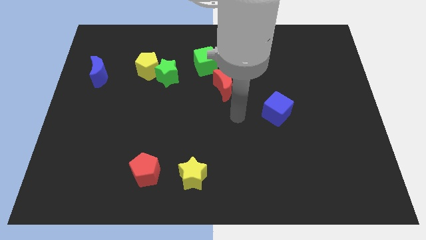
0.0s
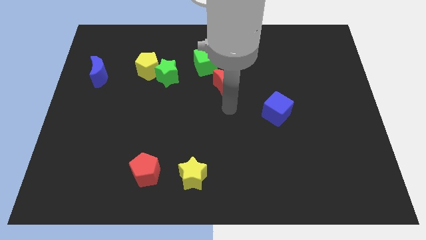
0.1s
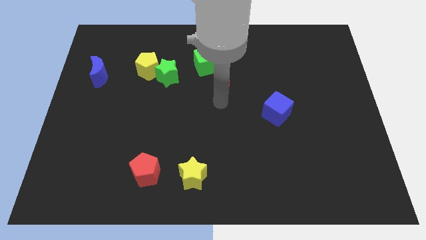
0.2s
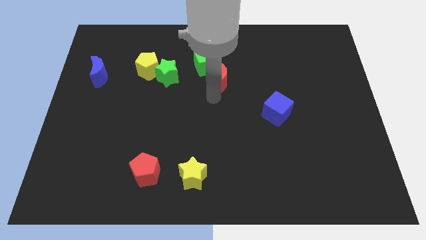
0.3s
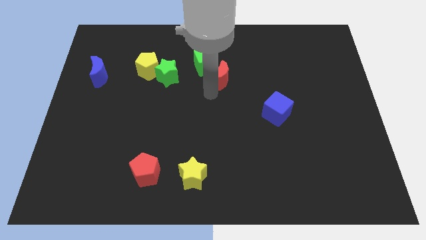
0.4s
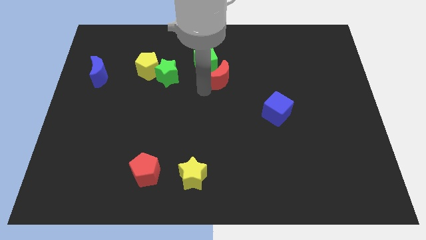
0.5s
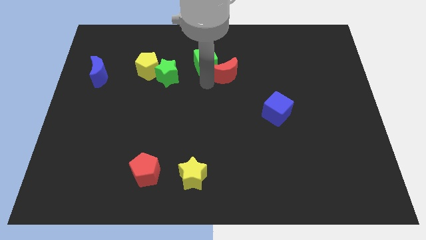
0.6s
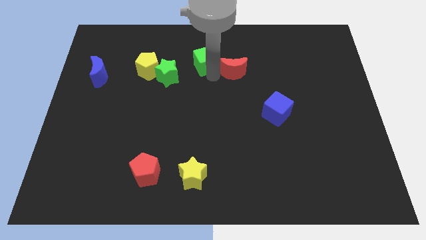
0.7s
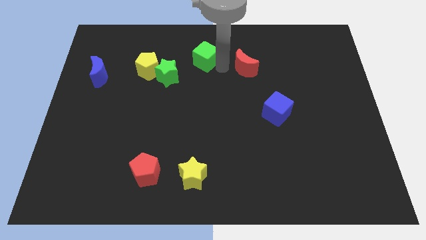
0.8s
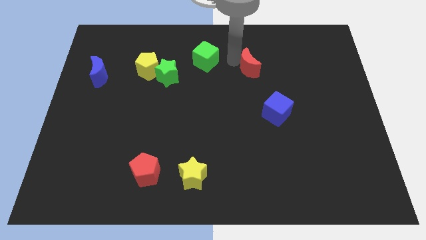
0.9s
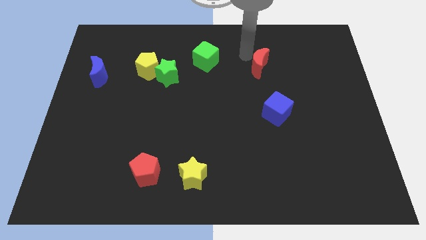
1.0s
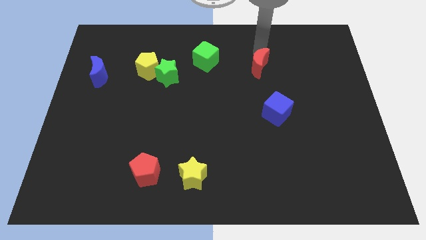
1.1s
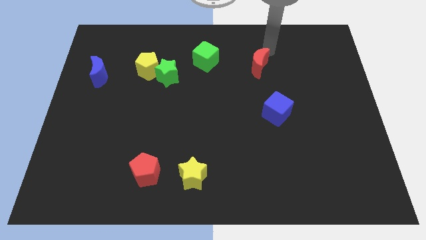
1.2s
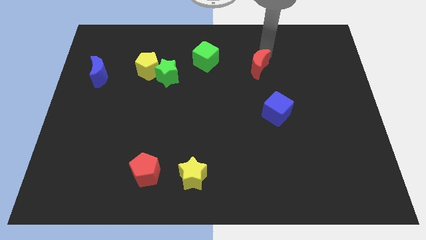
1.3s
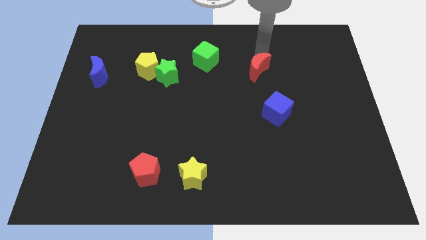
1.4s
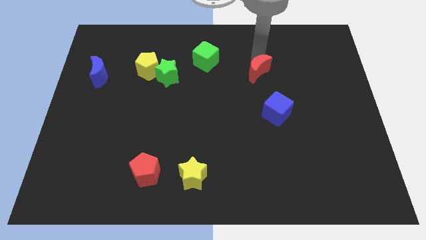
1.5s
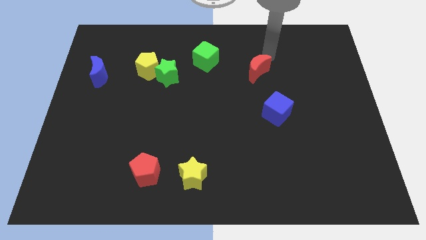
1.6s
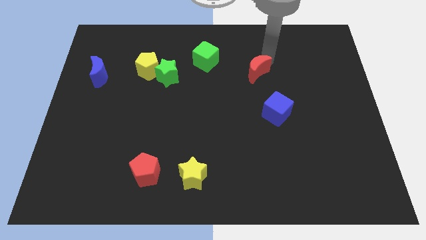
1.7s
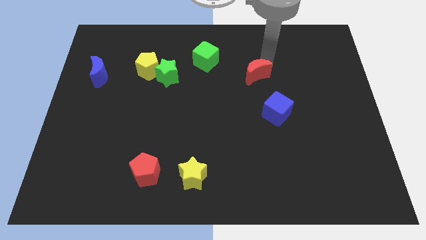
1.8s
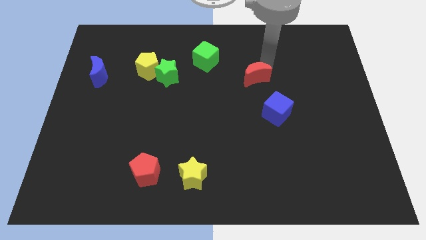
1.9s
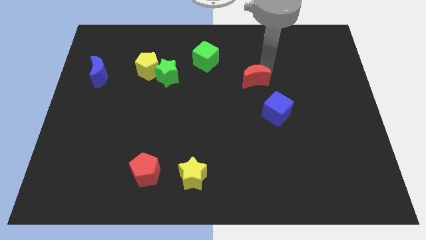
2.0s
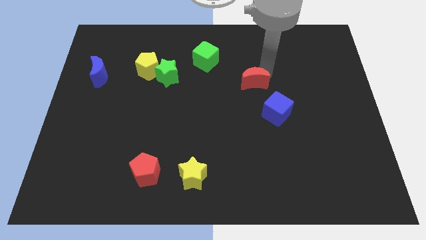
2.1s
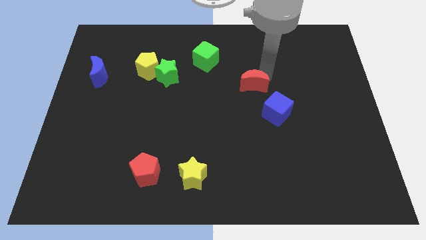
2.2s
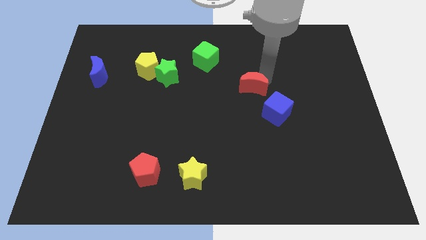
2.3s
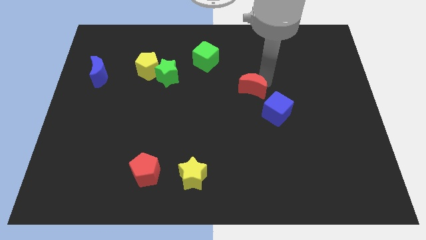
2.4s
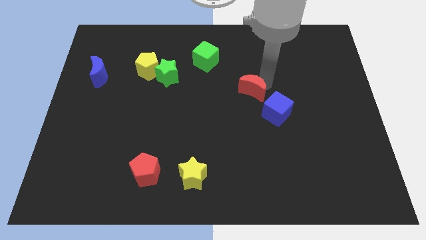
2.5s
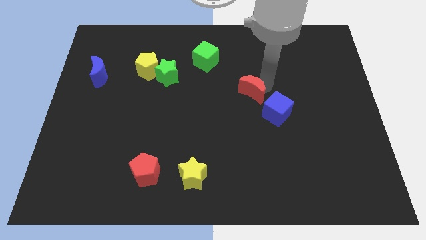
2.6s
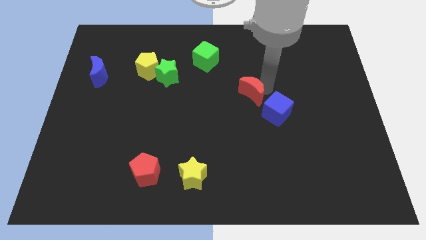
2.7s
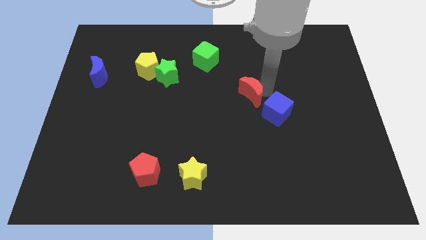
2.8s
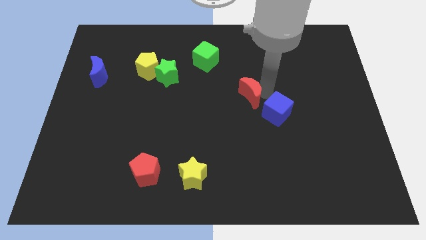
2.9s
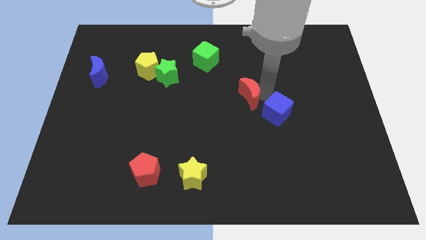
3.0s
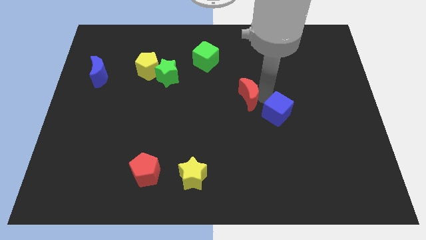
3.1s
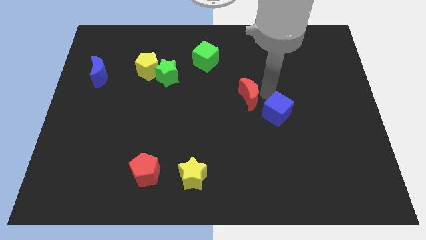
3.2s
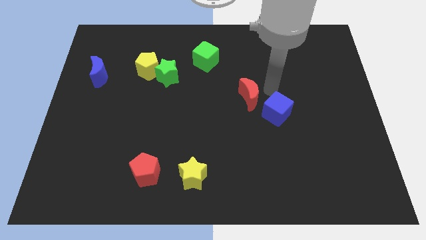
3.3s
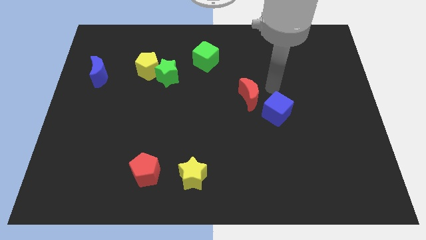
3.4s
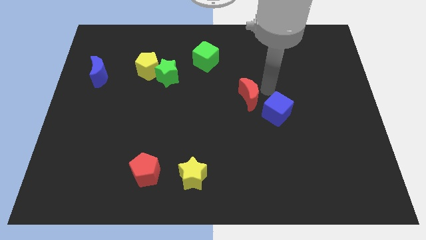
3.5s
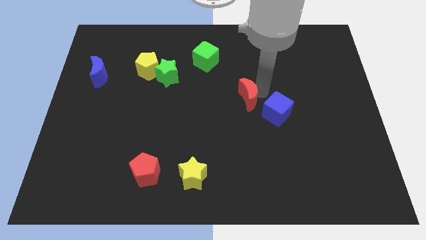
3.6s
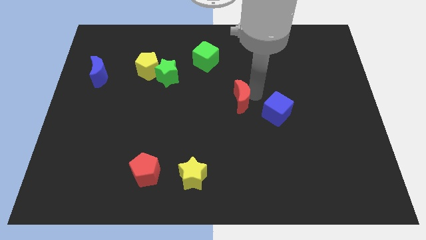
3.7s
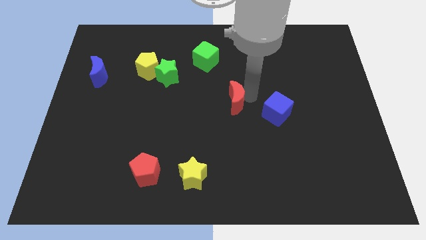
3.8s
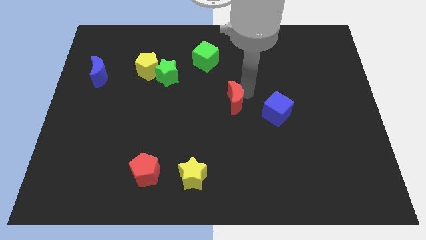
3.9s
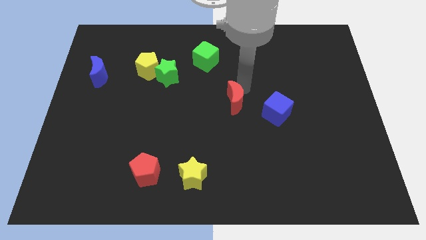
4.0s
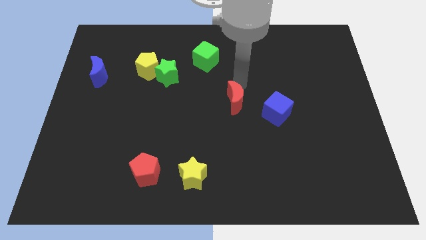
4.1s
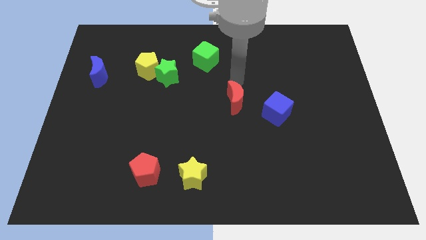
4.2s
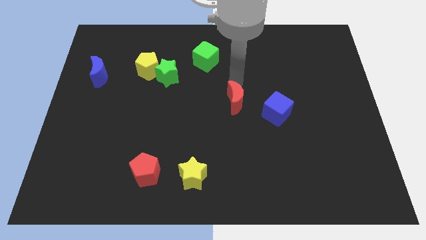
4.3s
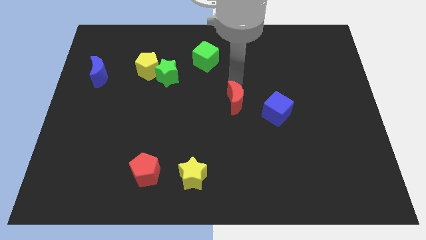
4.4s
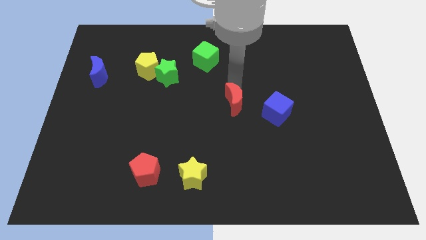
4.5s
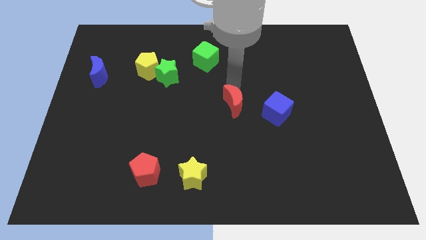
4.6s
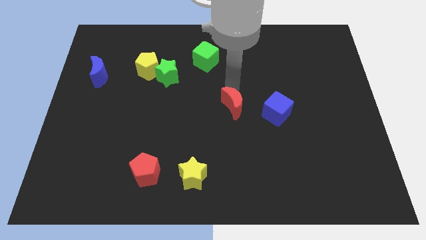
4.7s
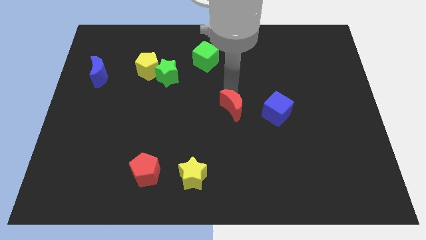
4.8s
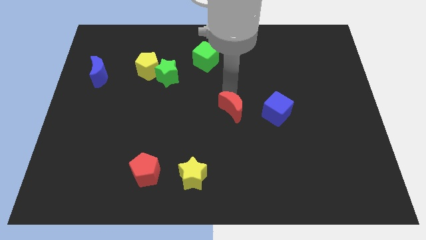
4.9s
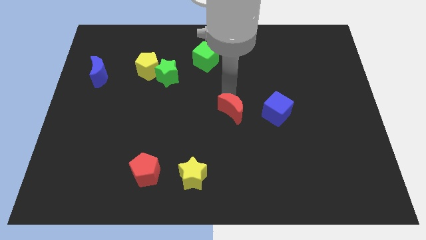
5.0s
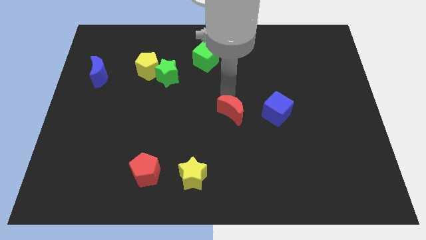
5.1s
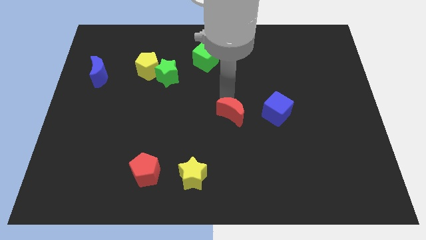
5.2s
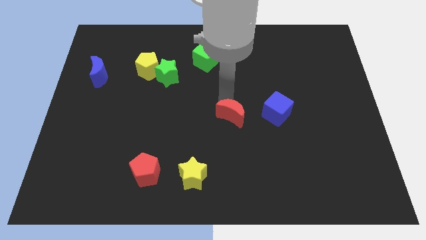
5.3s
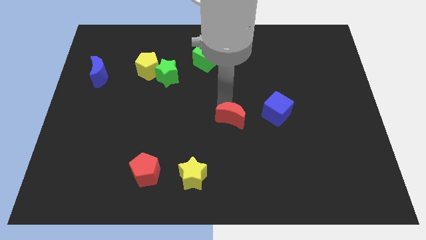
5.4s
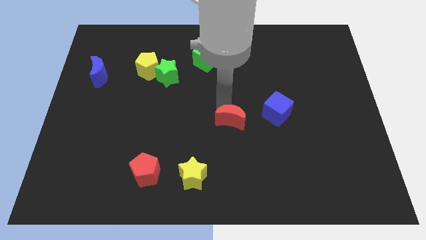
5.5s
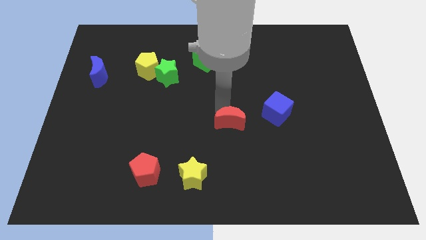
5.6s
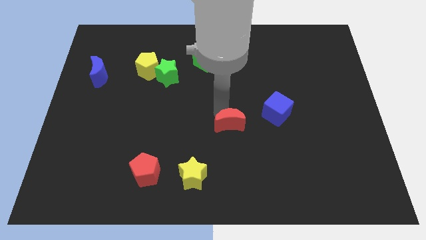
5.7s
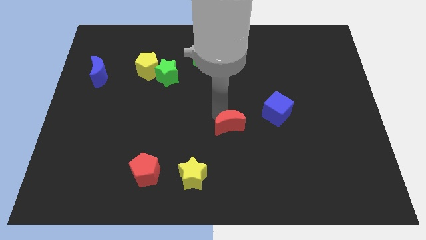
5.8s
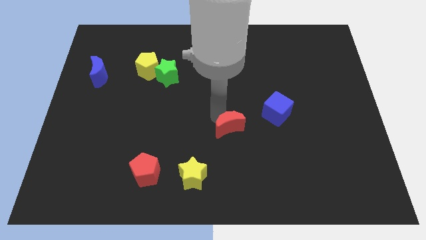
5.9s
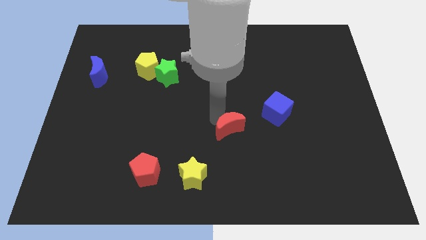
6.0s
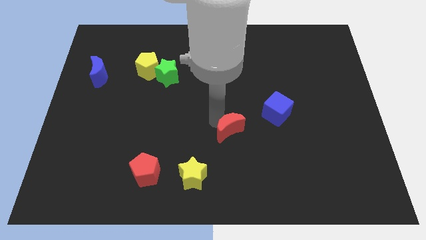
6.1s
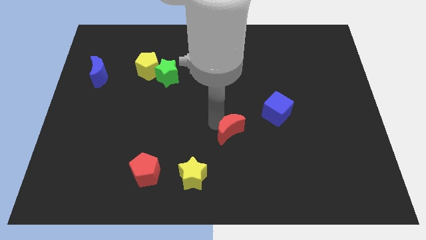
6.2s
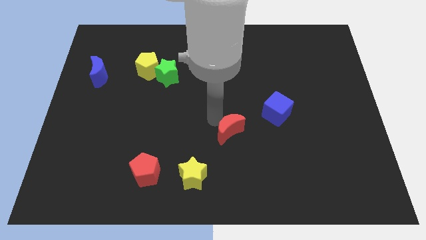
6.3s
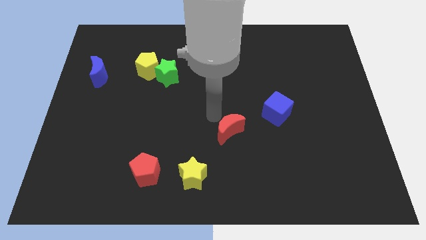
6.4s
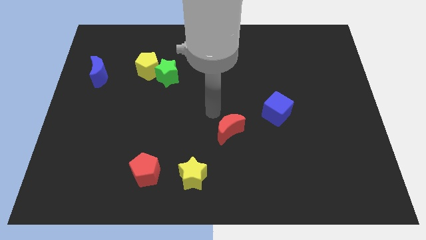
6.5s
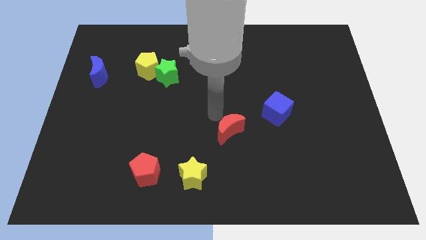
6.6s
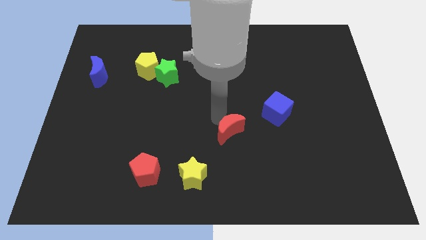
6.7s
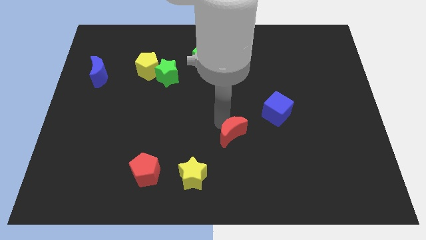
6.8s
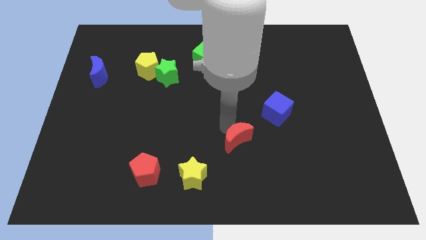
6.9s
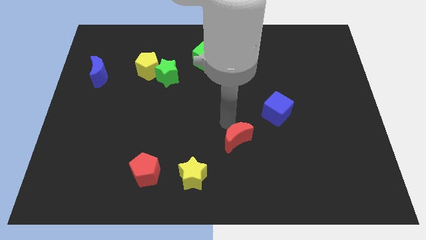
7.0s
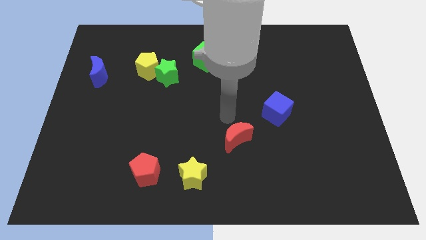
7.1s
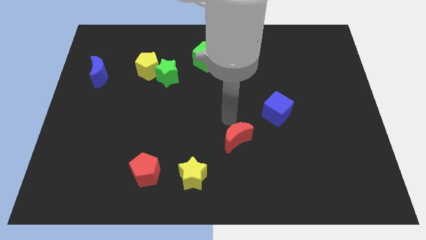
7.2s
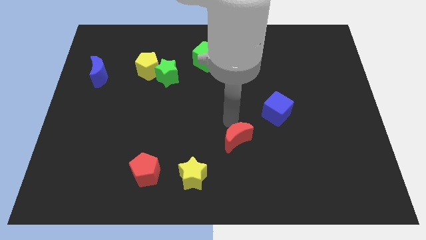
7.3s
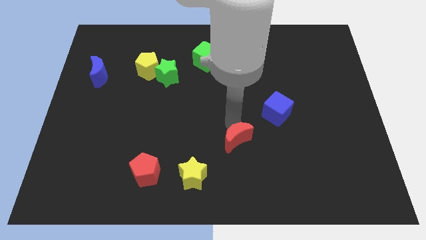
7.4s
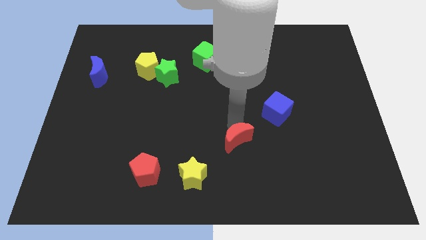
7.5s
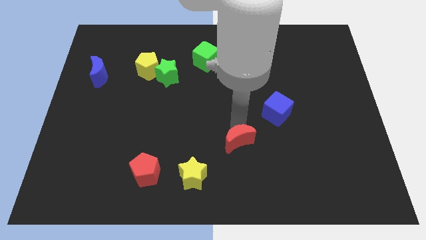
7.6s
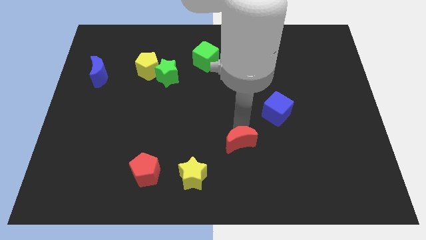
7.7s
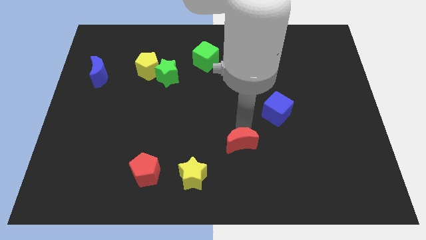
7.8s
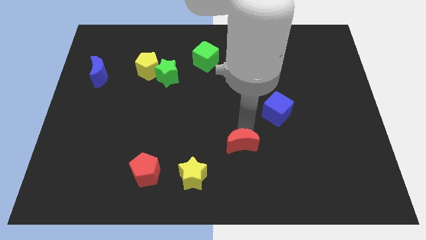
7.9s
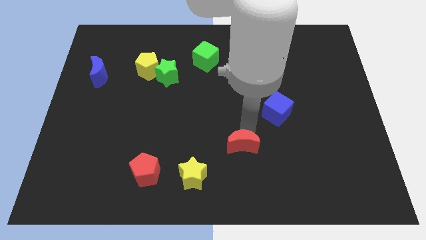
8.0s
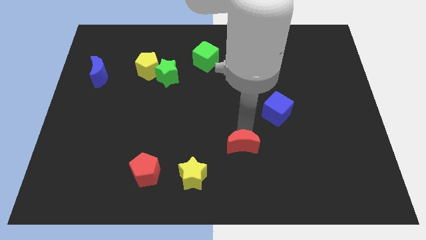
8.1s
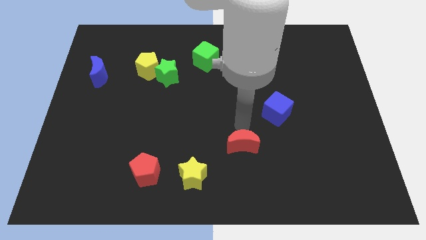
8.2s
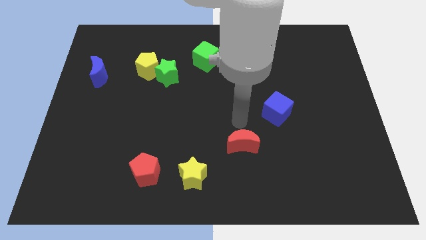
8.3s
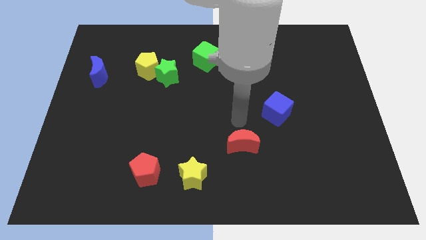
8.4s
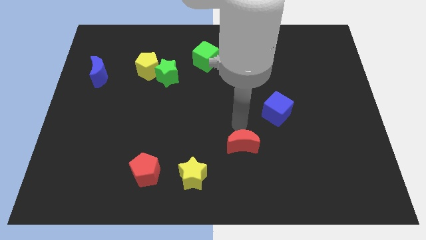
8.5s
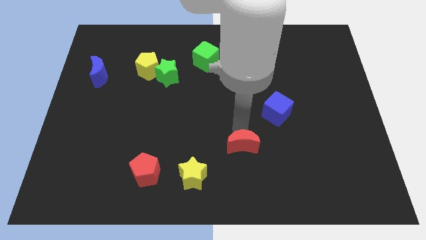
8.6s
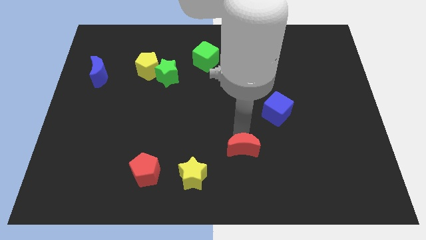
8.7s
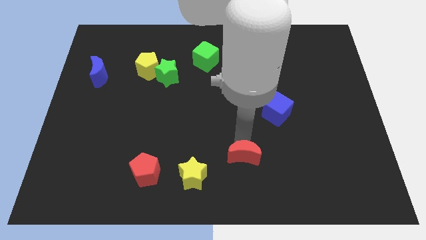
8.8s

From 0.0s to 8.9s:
slide the red moon right of the yellow star
